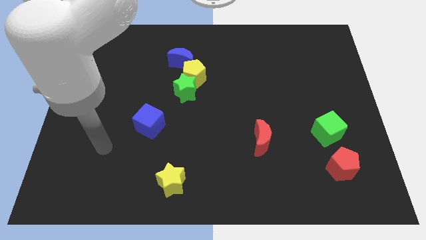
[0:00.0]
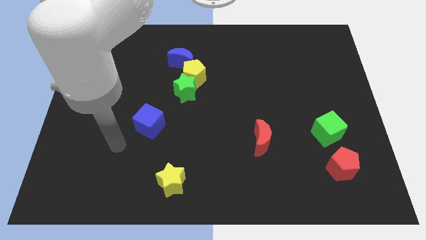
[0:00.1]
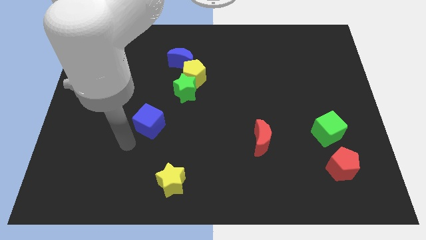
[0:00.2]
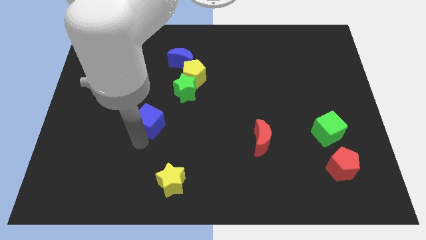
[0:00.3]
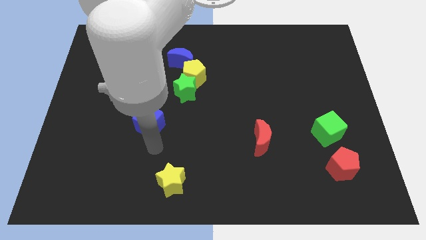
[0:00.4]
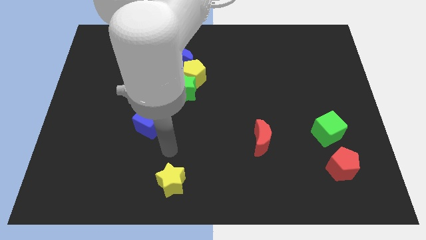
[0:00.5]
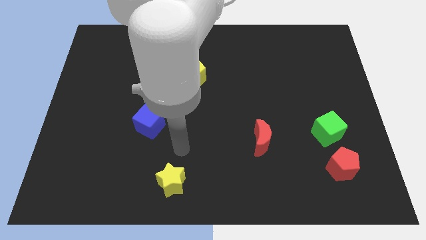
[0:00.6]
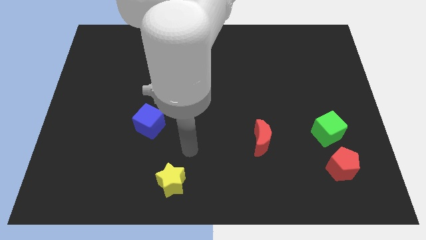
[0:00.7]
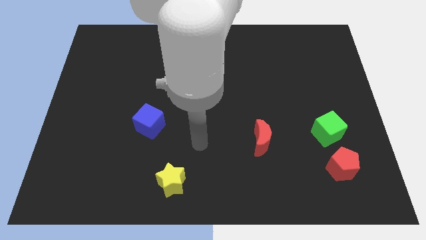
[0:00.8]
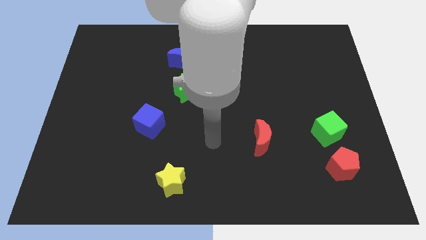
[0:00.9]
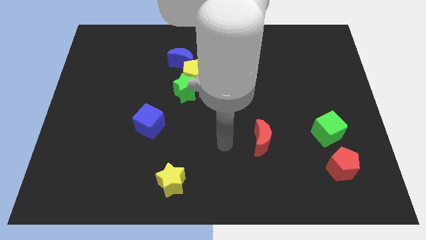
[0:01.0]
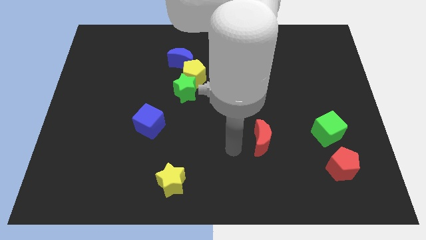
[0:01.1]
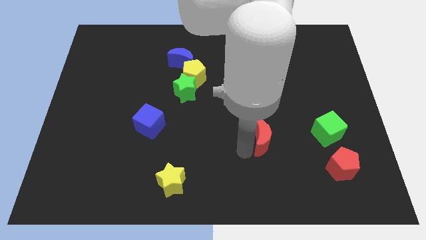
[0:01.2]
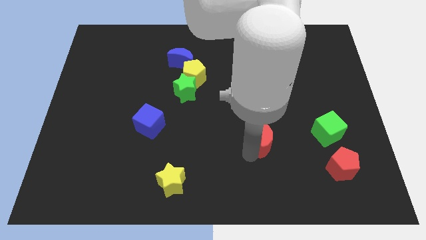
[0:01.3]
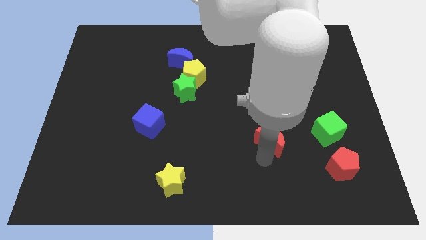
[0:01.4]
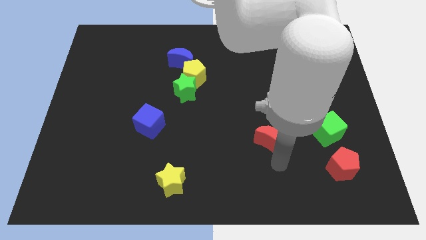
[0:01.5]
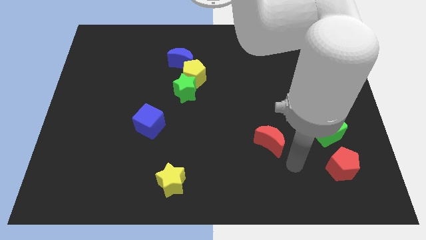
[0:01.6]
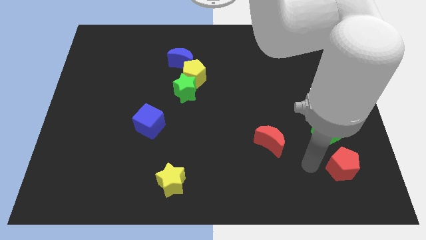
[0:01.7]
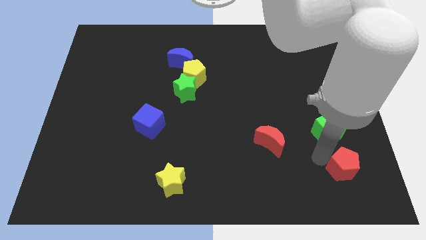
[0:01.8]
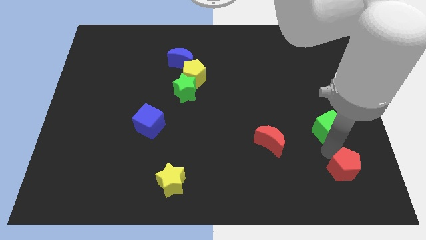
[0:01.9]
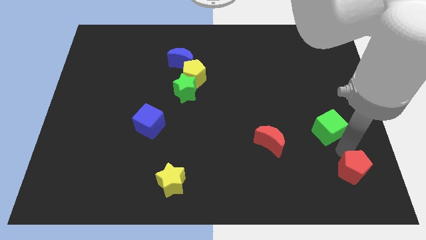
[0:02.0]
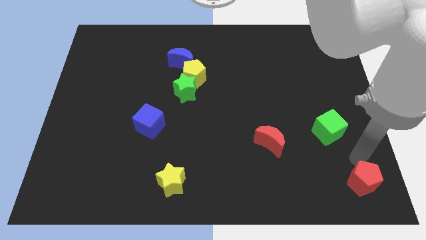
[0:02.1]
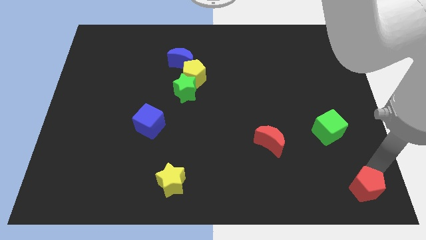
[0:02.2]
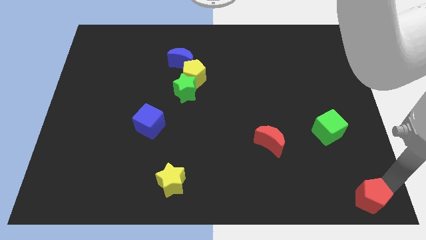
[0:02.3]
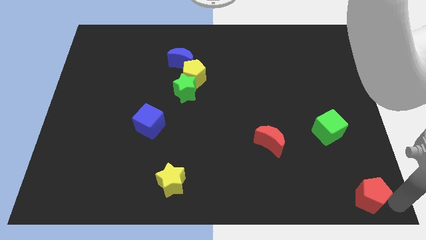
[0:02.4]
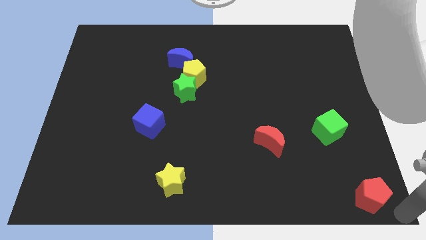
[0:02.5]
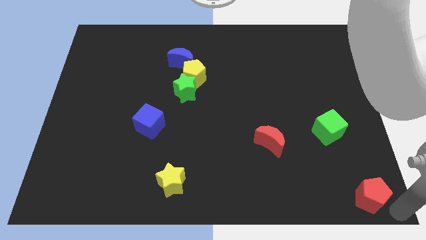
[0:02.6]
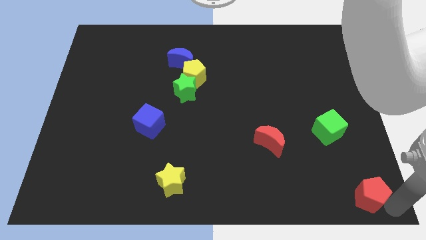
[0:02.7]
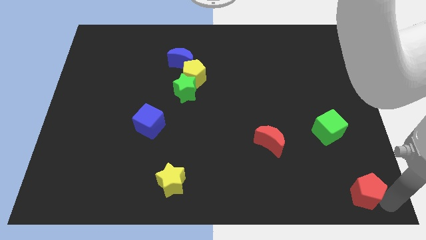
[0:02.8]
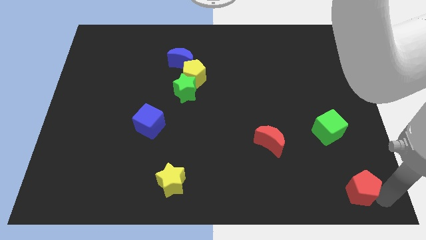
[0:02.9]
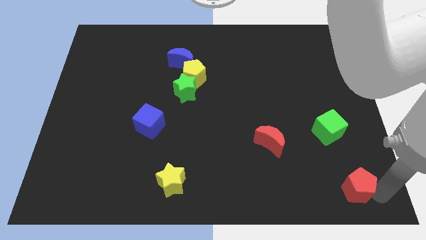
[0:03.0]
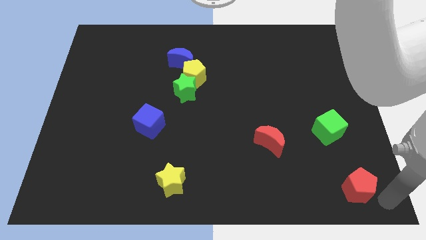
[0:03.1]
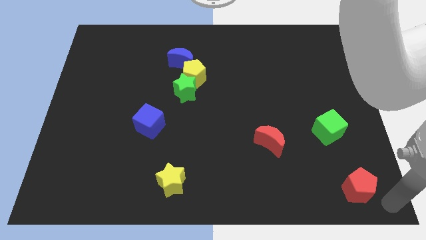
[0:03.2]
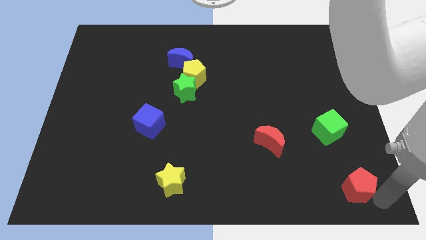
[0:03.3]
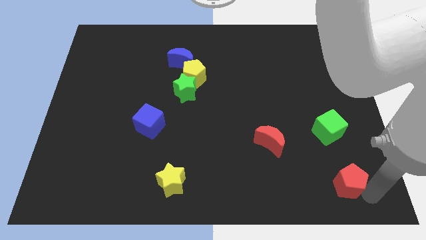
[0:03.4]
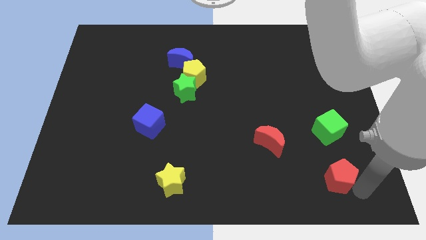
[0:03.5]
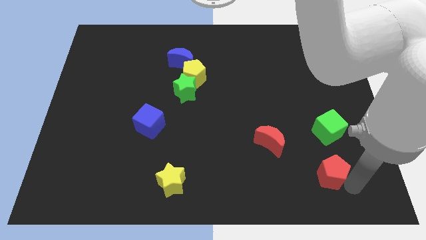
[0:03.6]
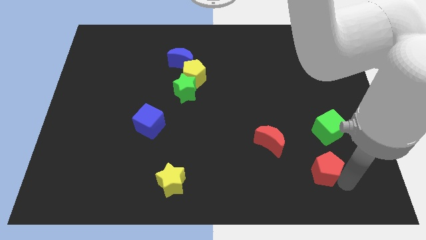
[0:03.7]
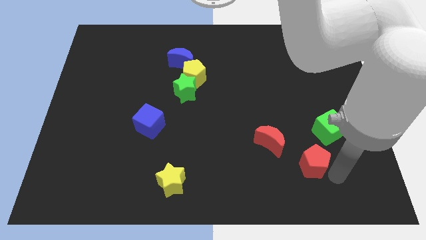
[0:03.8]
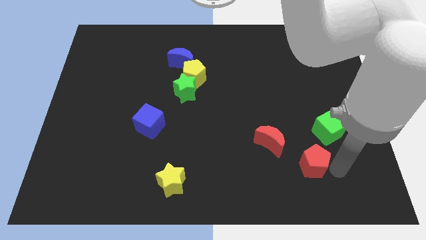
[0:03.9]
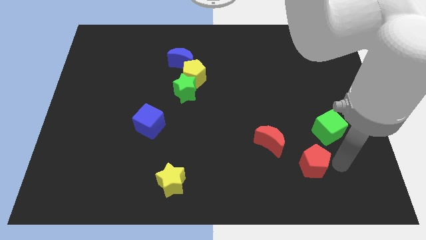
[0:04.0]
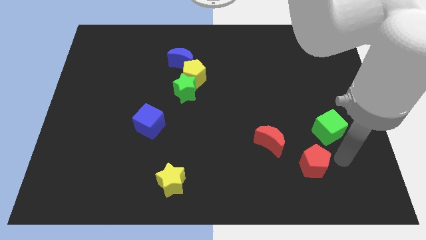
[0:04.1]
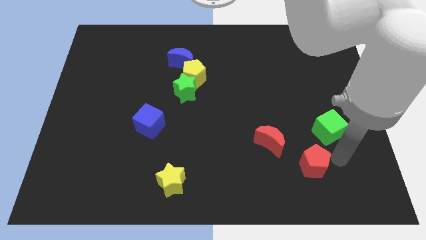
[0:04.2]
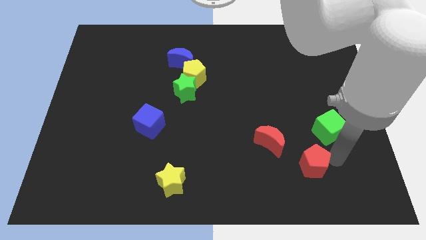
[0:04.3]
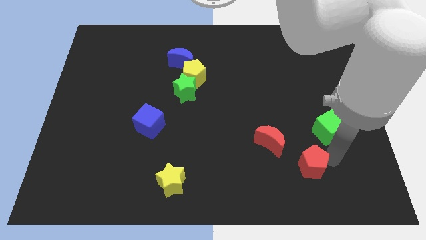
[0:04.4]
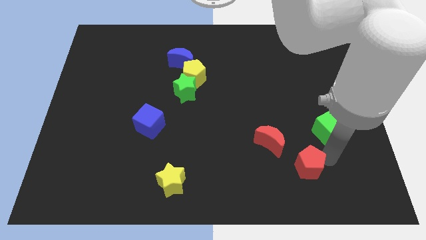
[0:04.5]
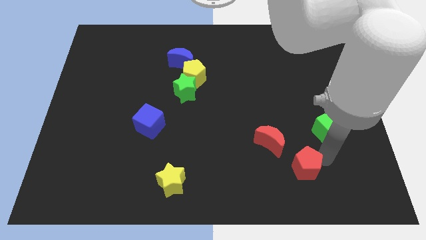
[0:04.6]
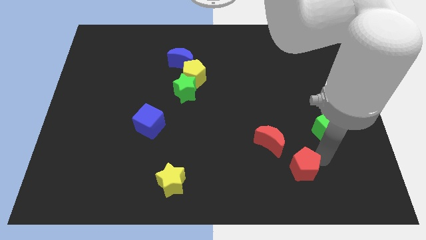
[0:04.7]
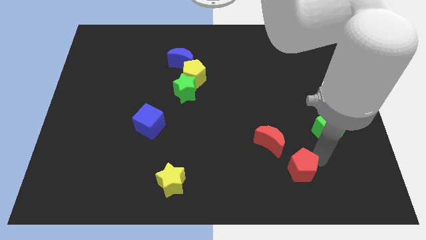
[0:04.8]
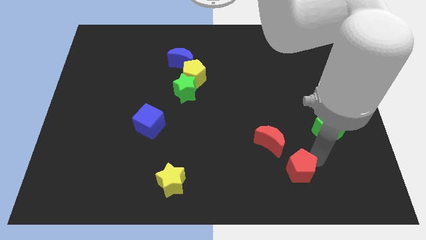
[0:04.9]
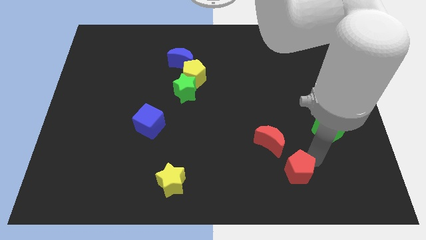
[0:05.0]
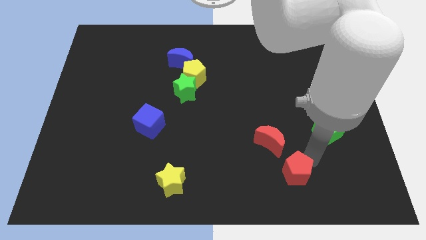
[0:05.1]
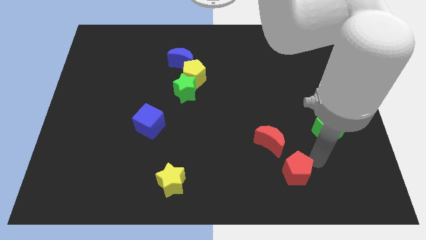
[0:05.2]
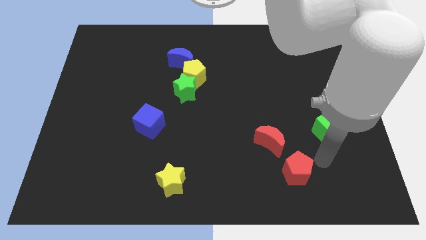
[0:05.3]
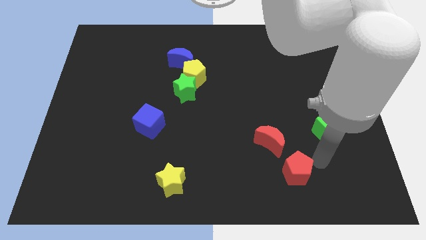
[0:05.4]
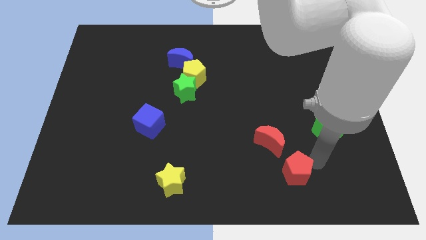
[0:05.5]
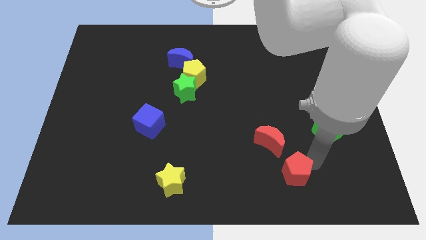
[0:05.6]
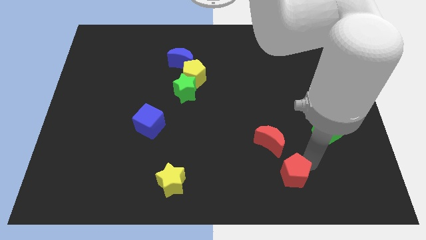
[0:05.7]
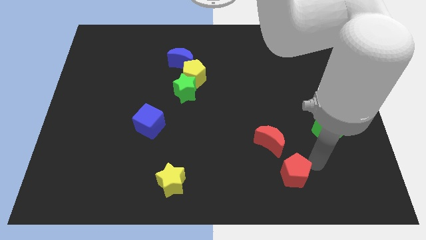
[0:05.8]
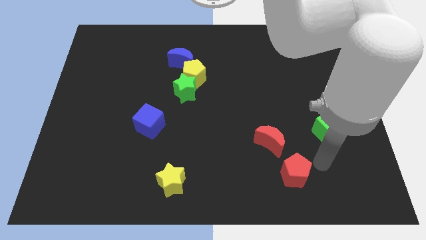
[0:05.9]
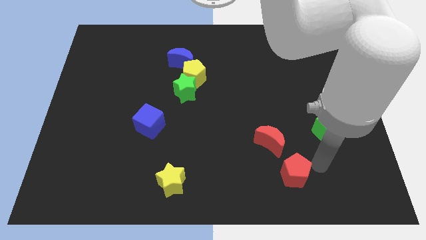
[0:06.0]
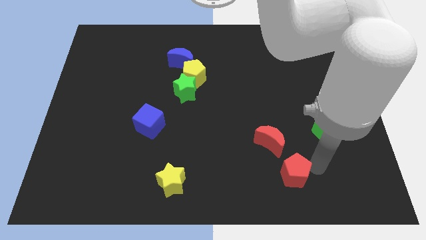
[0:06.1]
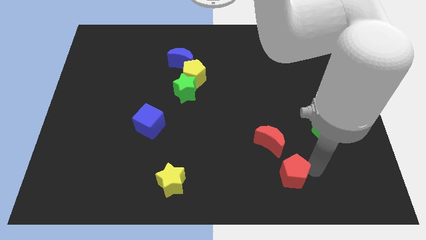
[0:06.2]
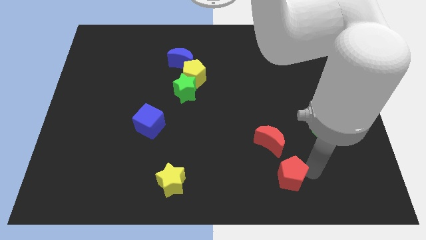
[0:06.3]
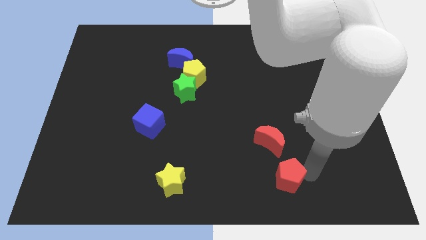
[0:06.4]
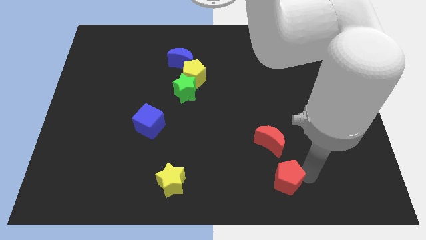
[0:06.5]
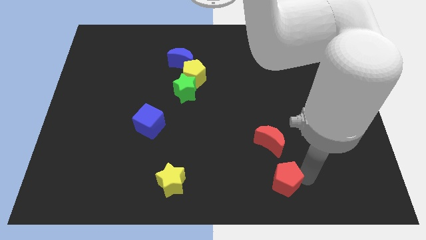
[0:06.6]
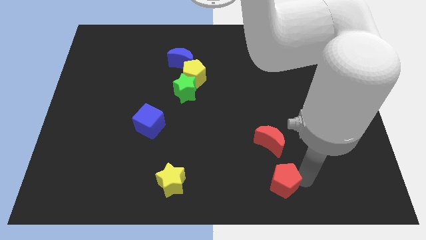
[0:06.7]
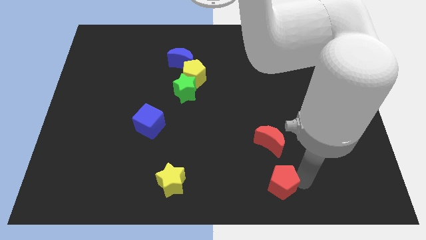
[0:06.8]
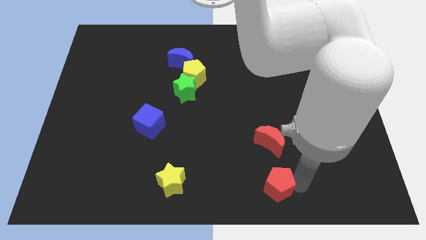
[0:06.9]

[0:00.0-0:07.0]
move the red pentagon to the bottom side
